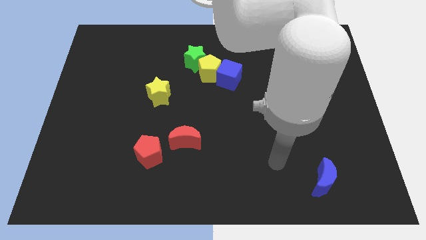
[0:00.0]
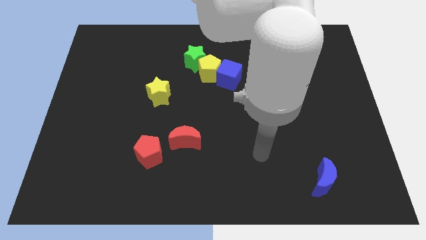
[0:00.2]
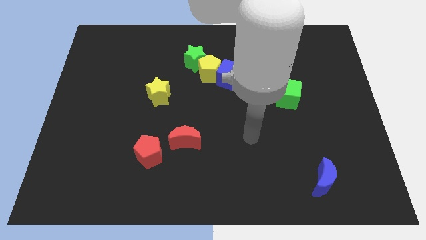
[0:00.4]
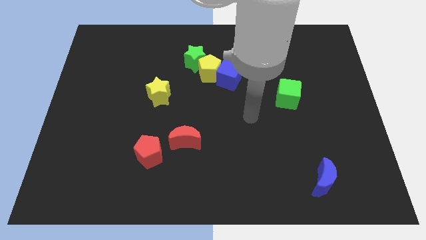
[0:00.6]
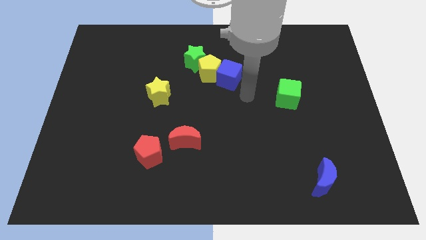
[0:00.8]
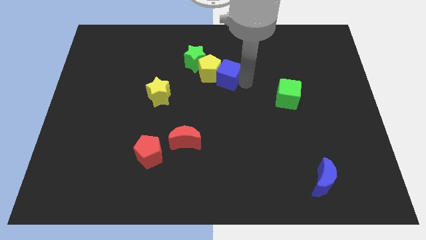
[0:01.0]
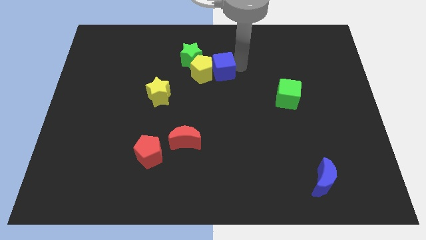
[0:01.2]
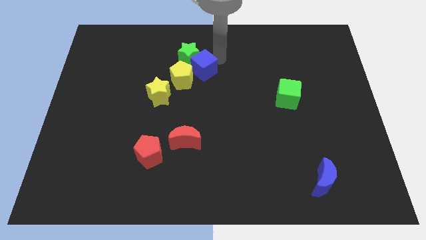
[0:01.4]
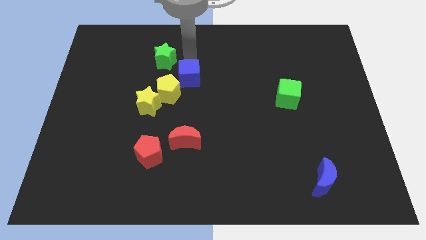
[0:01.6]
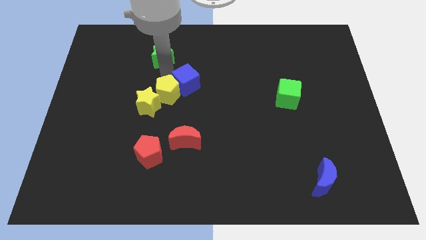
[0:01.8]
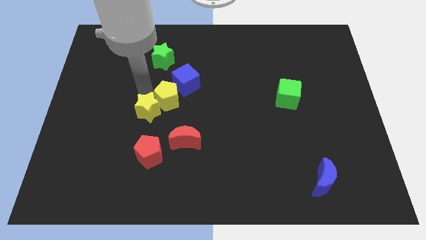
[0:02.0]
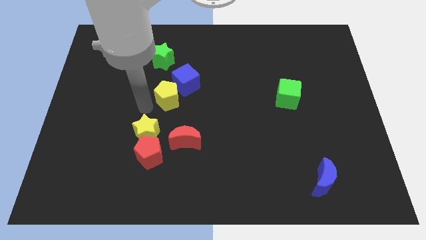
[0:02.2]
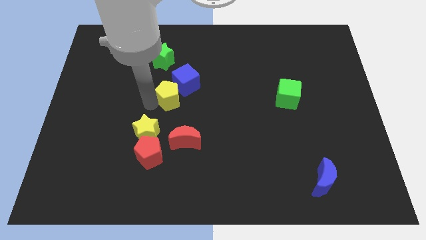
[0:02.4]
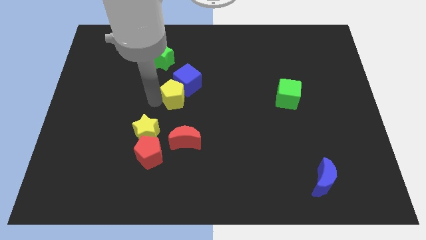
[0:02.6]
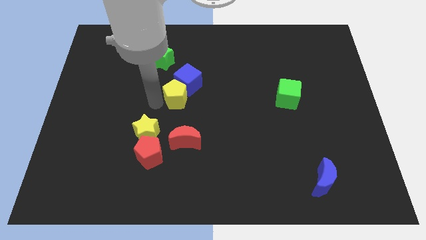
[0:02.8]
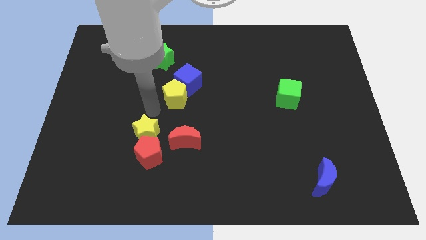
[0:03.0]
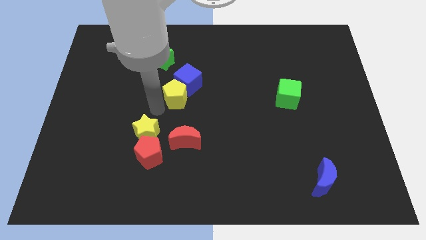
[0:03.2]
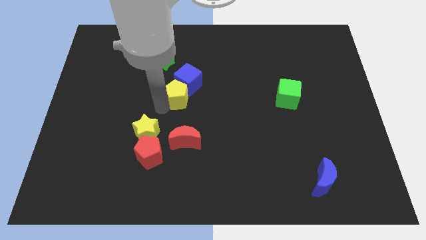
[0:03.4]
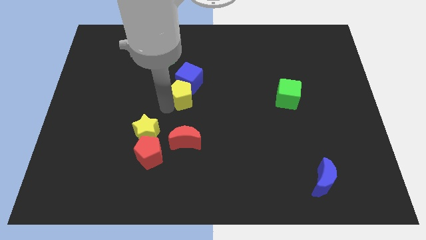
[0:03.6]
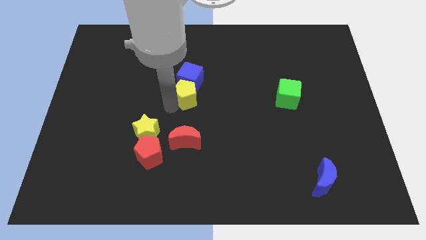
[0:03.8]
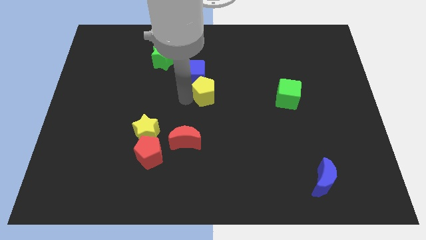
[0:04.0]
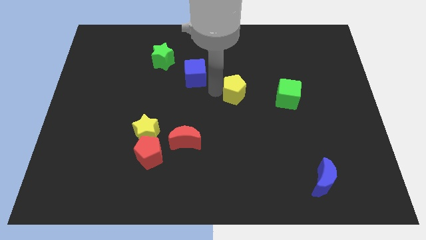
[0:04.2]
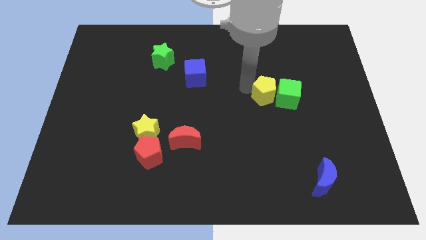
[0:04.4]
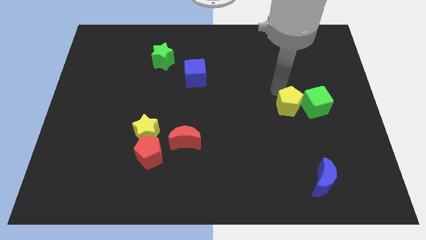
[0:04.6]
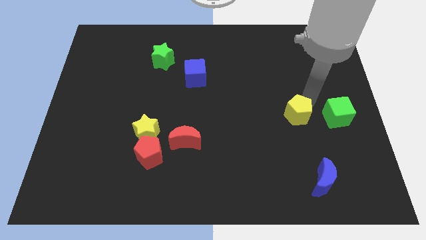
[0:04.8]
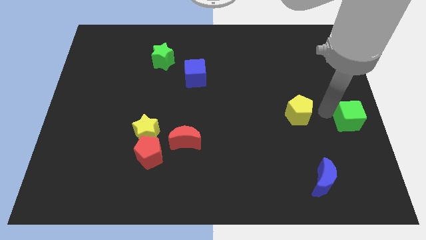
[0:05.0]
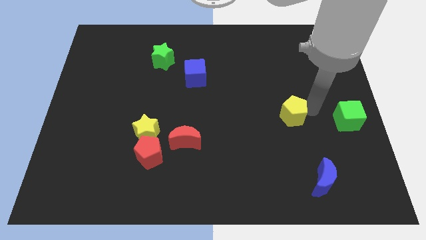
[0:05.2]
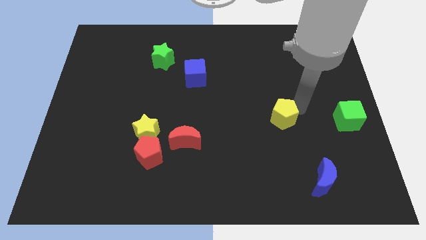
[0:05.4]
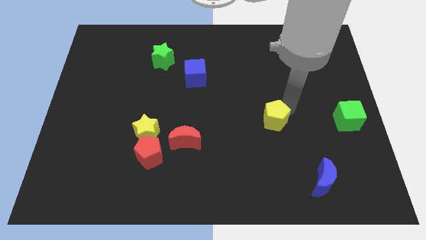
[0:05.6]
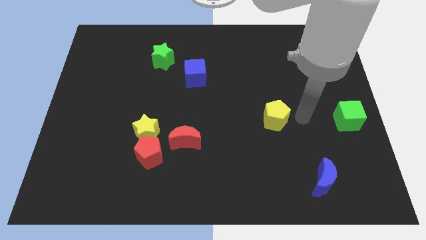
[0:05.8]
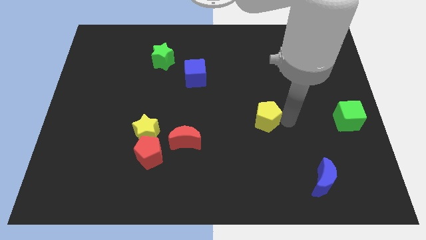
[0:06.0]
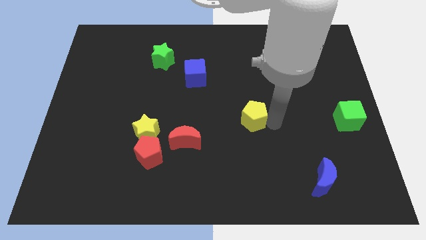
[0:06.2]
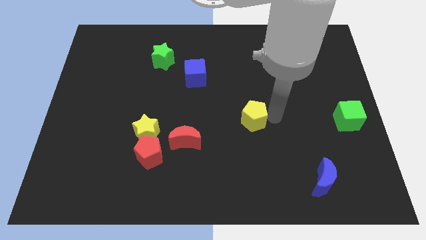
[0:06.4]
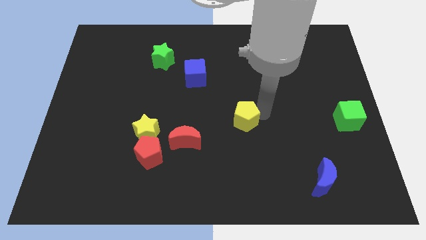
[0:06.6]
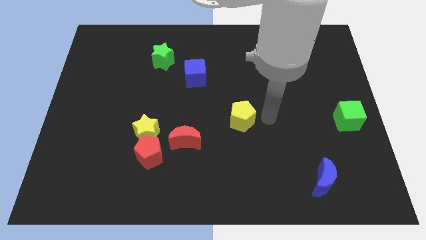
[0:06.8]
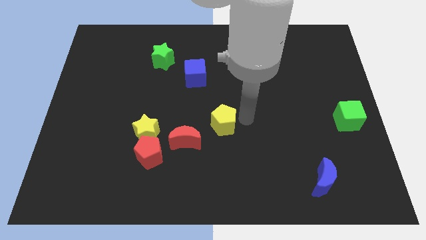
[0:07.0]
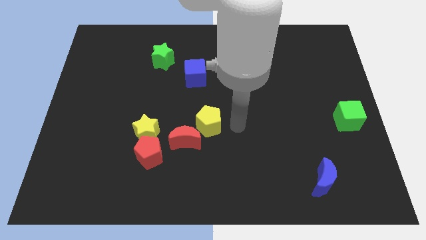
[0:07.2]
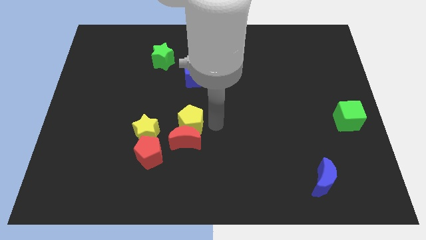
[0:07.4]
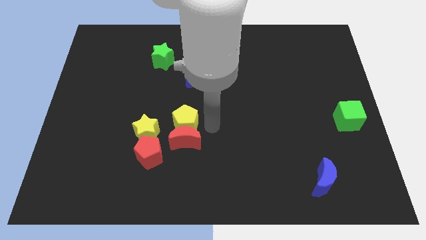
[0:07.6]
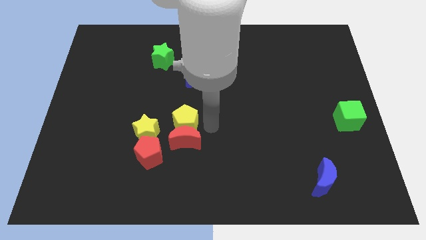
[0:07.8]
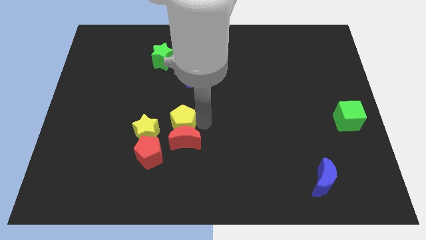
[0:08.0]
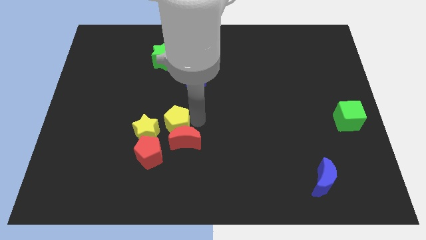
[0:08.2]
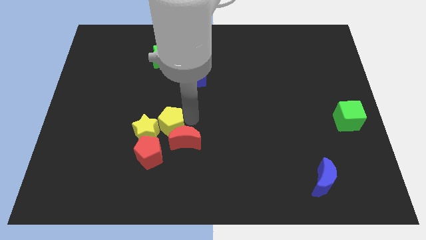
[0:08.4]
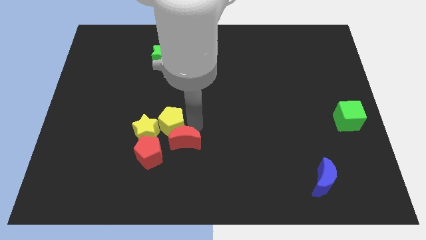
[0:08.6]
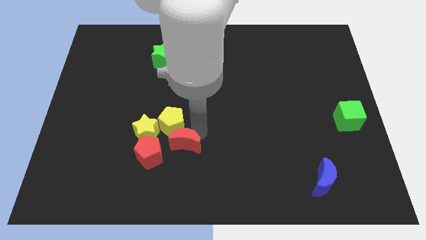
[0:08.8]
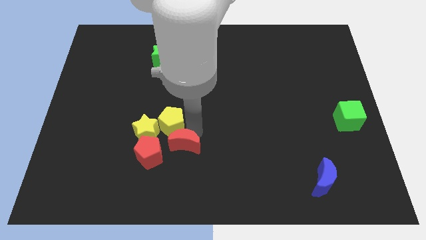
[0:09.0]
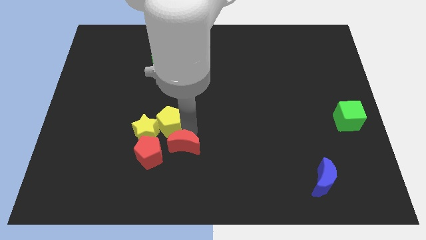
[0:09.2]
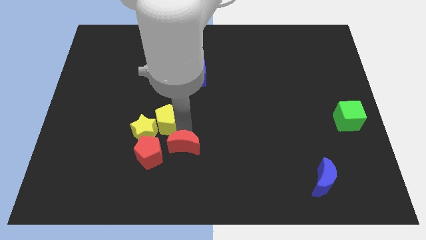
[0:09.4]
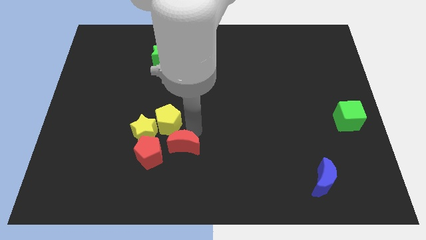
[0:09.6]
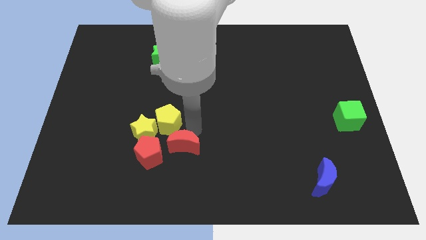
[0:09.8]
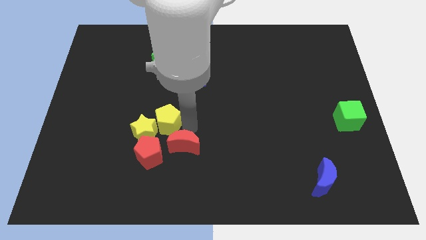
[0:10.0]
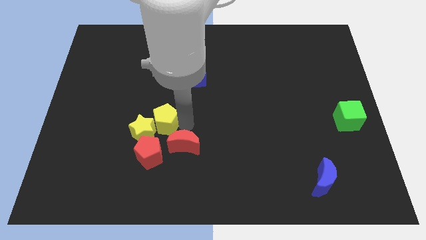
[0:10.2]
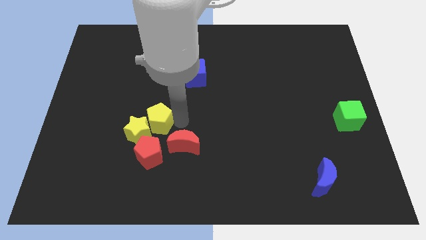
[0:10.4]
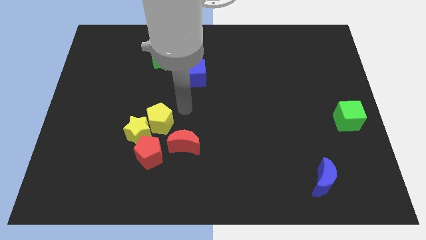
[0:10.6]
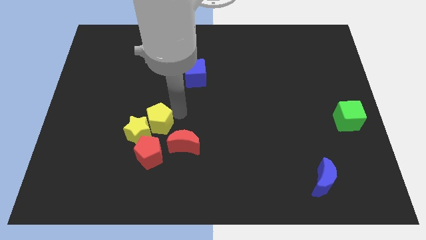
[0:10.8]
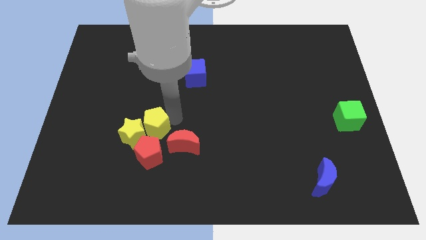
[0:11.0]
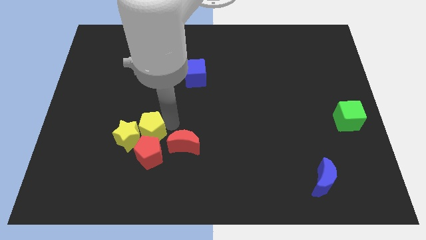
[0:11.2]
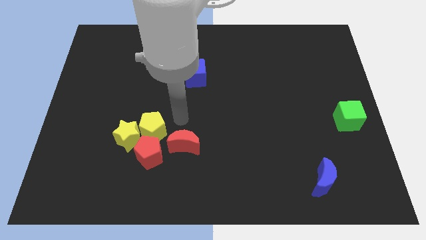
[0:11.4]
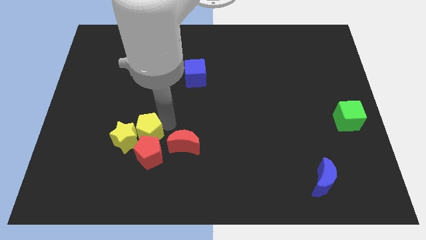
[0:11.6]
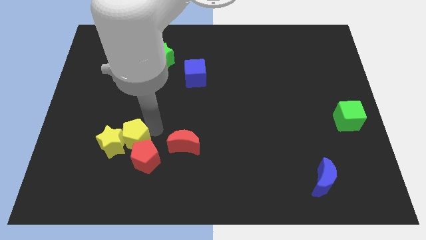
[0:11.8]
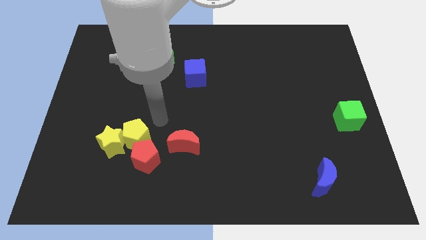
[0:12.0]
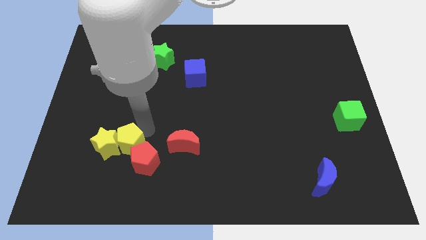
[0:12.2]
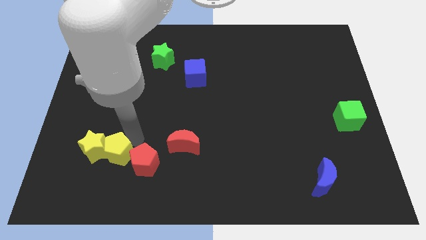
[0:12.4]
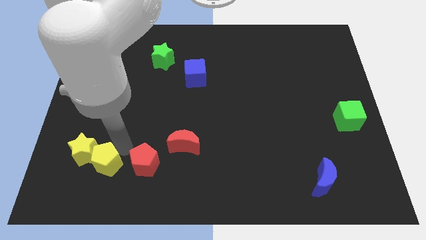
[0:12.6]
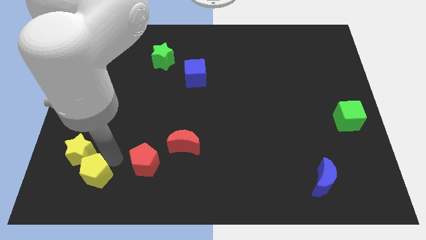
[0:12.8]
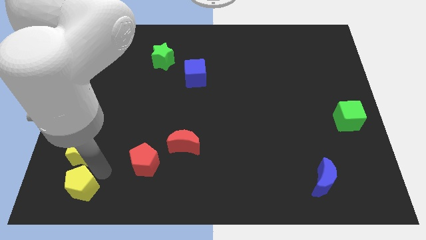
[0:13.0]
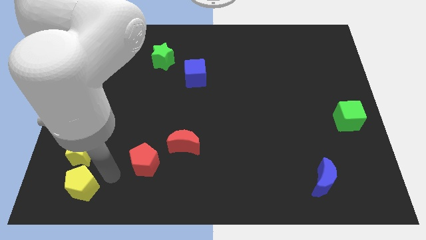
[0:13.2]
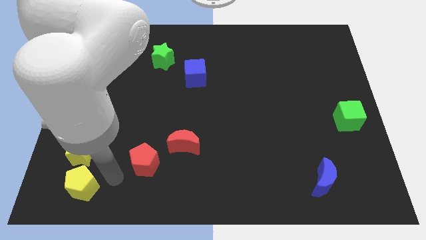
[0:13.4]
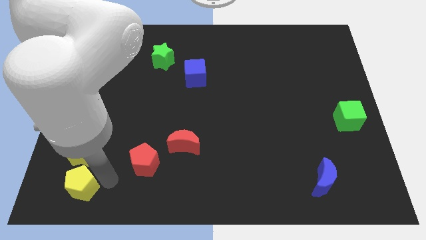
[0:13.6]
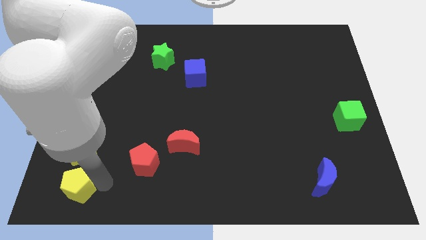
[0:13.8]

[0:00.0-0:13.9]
put the yellow pentagon to the bottom left corner

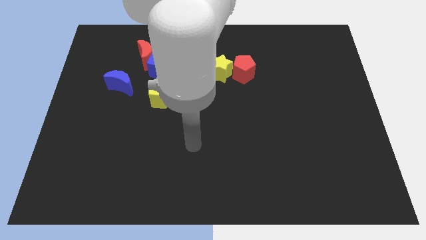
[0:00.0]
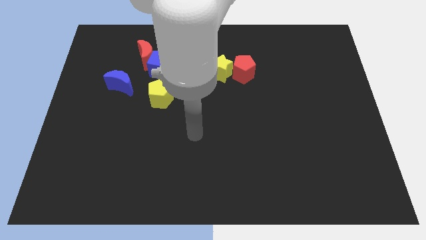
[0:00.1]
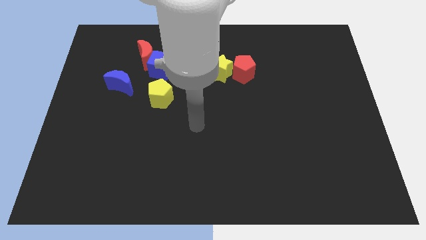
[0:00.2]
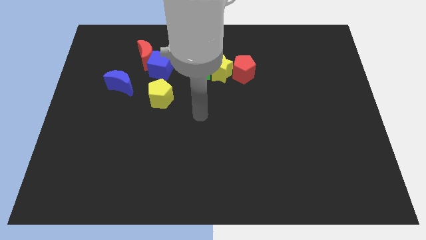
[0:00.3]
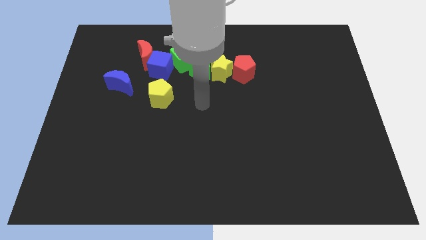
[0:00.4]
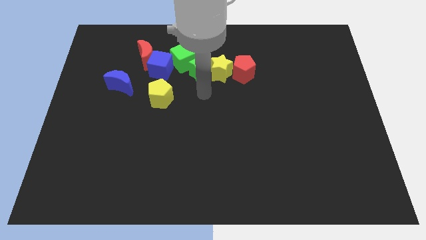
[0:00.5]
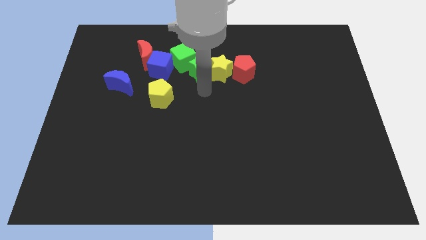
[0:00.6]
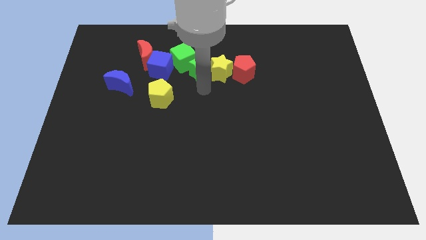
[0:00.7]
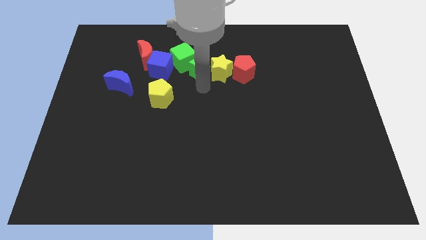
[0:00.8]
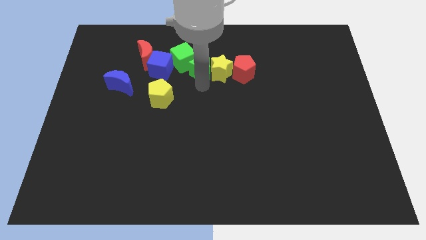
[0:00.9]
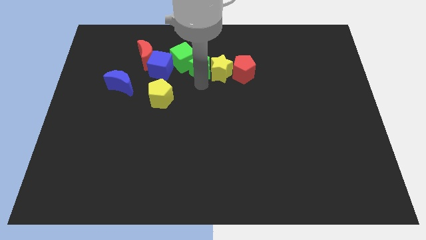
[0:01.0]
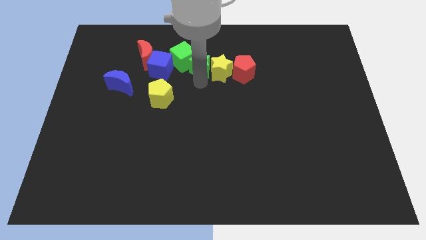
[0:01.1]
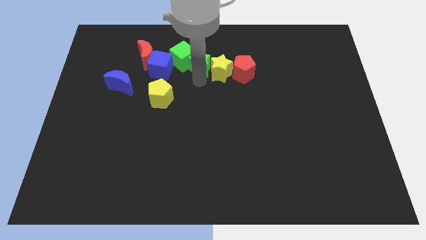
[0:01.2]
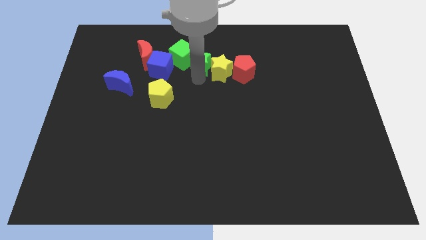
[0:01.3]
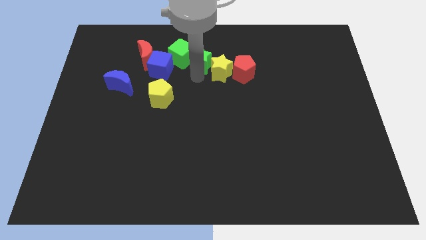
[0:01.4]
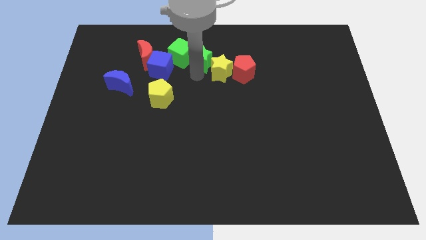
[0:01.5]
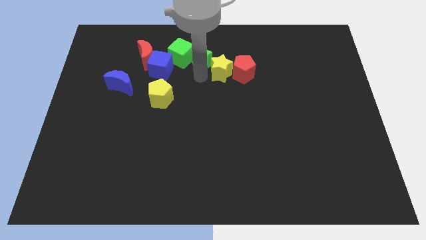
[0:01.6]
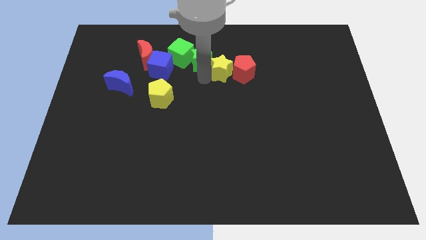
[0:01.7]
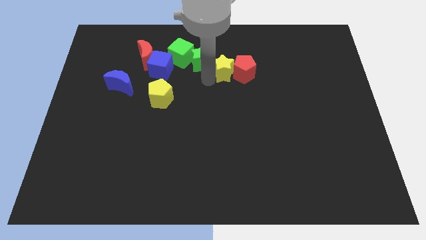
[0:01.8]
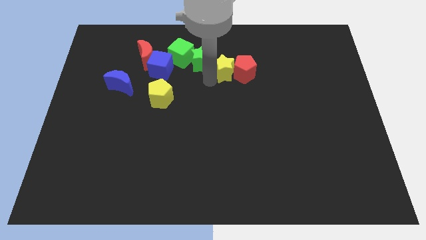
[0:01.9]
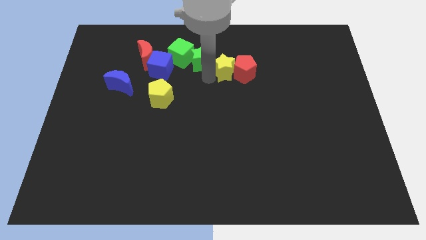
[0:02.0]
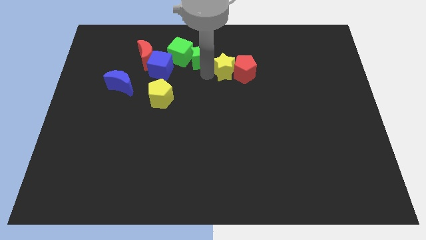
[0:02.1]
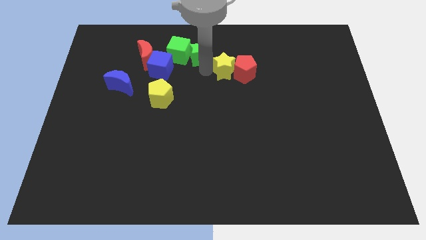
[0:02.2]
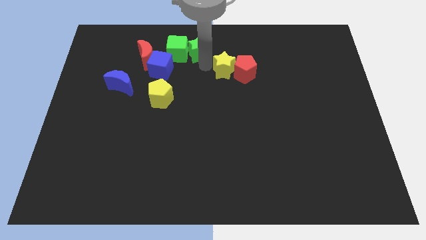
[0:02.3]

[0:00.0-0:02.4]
move the green star to the top side
